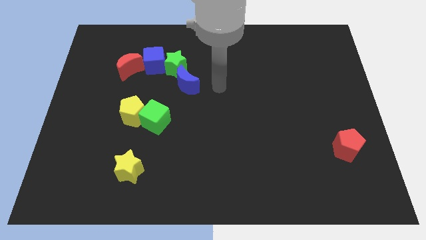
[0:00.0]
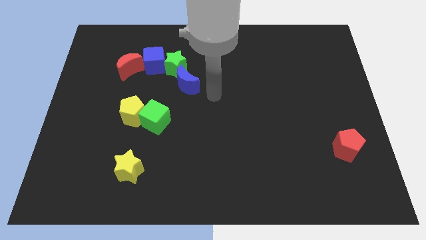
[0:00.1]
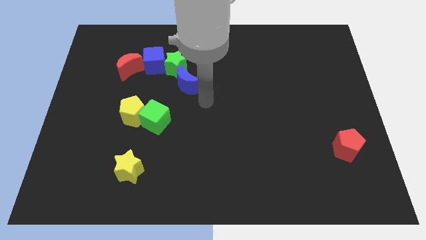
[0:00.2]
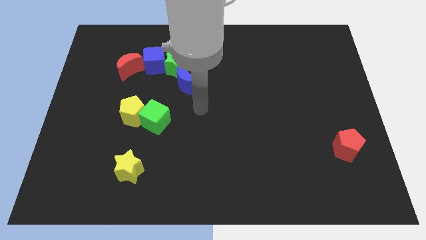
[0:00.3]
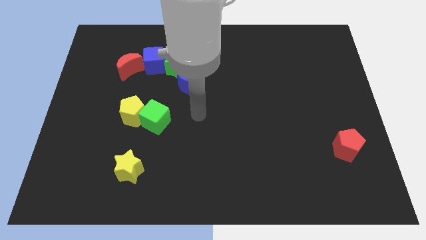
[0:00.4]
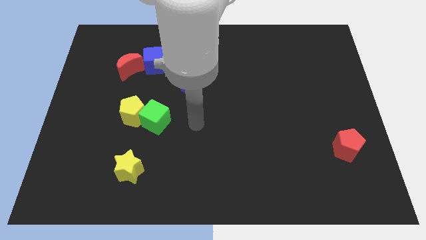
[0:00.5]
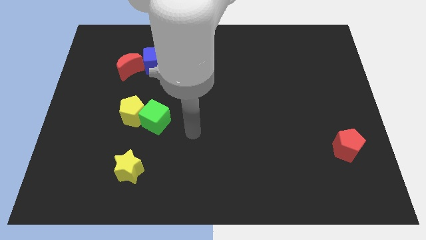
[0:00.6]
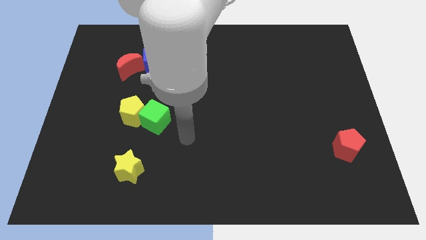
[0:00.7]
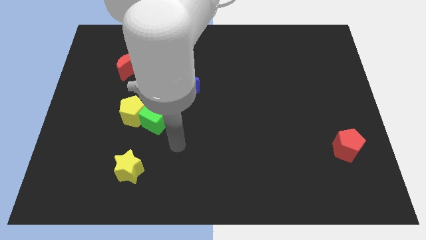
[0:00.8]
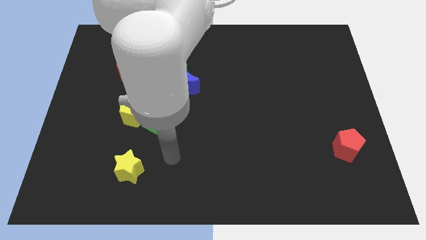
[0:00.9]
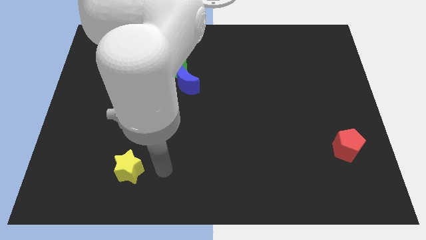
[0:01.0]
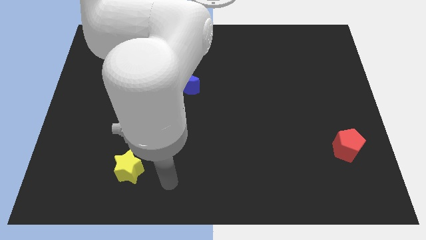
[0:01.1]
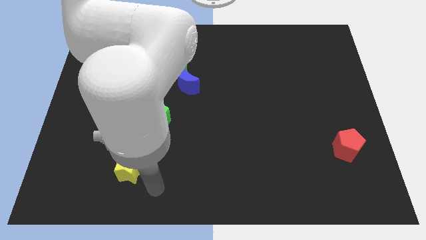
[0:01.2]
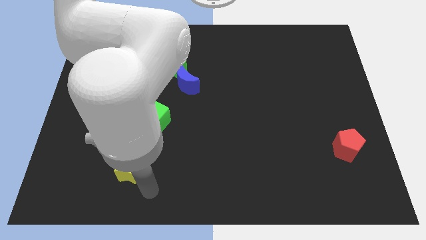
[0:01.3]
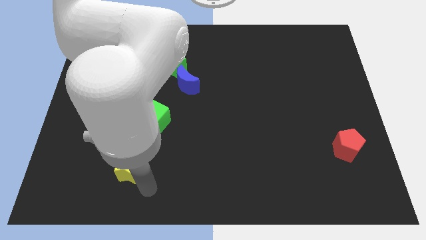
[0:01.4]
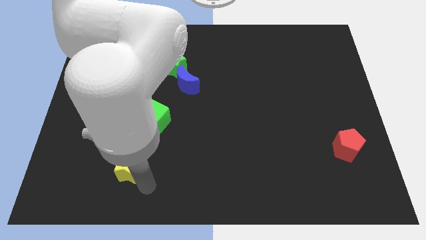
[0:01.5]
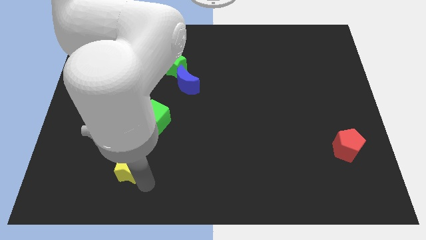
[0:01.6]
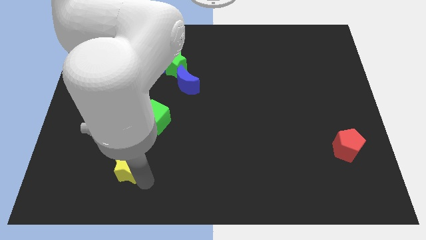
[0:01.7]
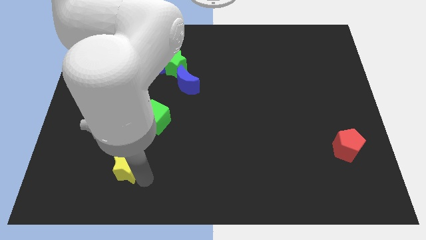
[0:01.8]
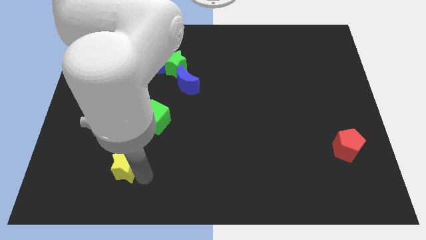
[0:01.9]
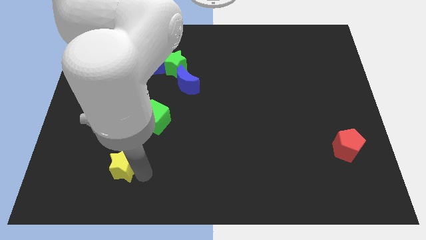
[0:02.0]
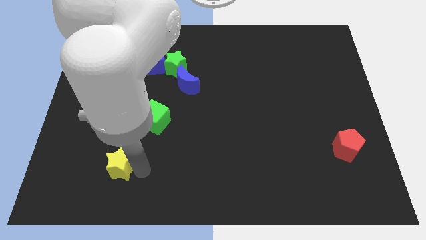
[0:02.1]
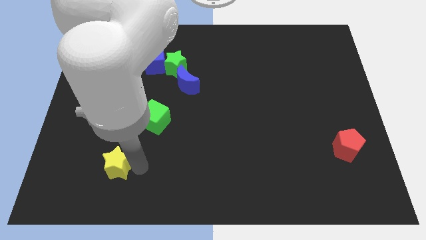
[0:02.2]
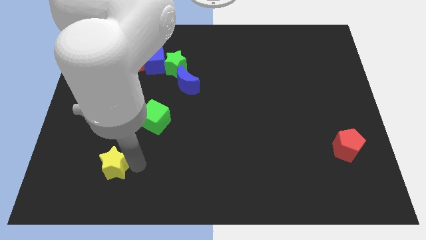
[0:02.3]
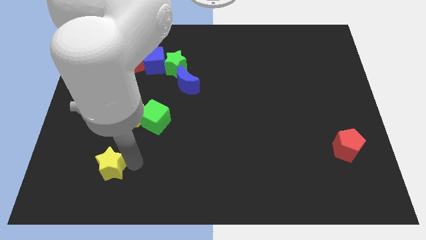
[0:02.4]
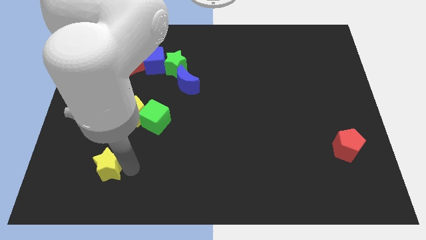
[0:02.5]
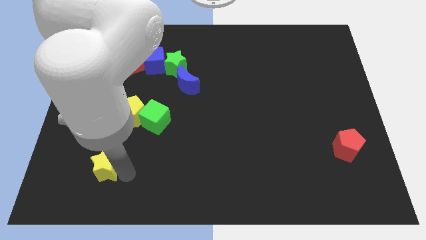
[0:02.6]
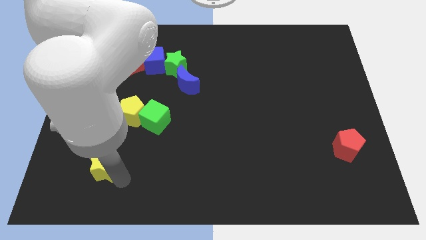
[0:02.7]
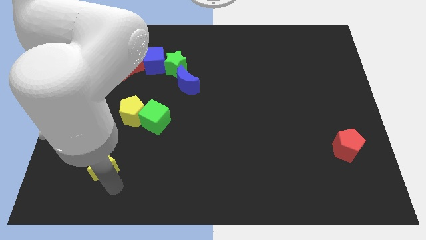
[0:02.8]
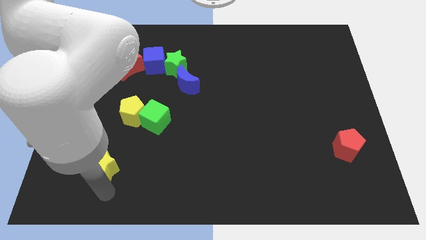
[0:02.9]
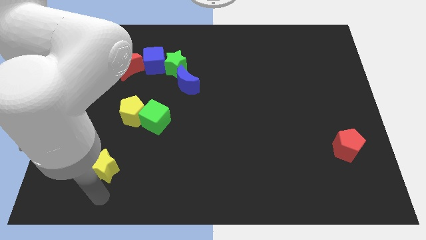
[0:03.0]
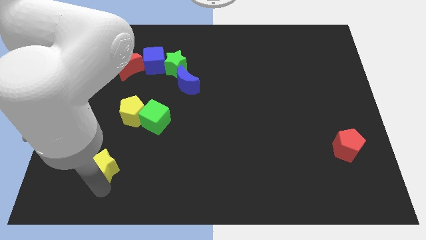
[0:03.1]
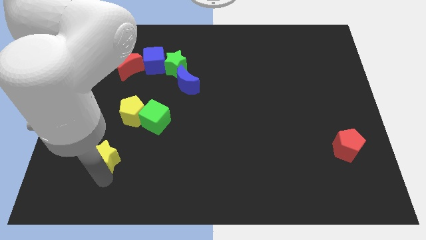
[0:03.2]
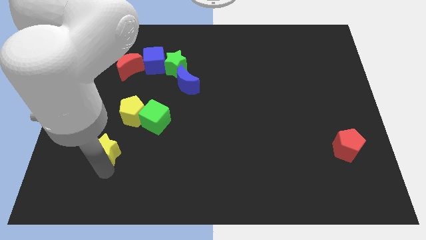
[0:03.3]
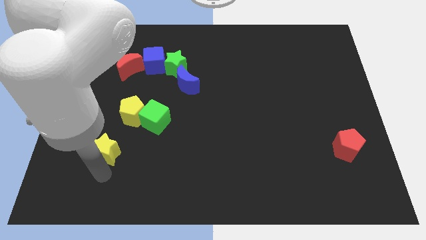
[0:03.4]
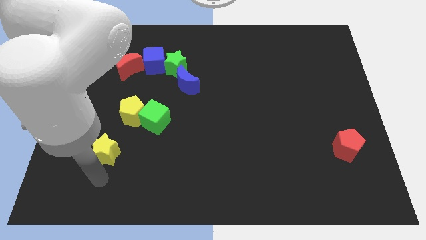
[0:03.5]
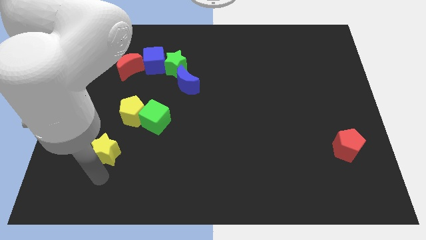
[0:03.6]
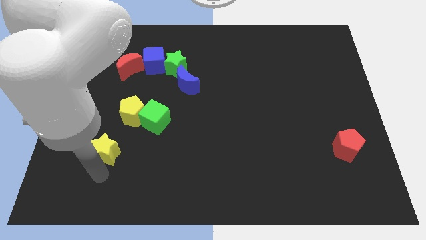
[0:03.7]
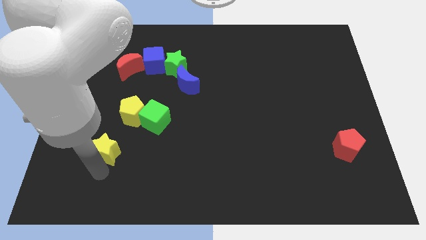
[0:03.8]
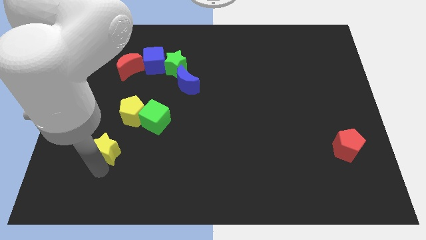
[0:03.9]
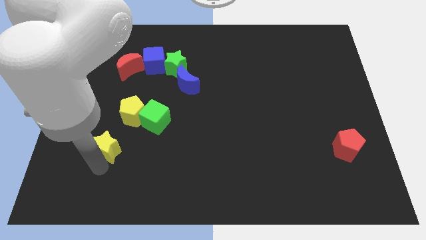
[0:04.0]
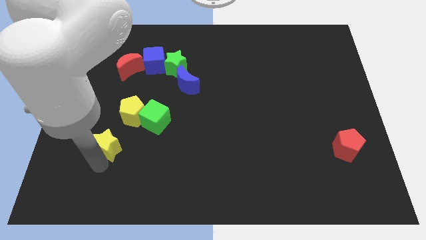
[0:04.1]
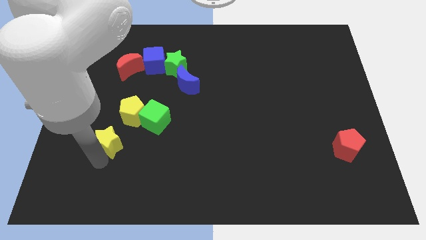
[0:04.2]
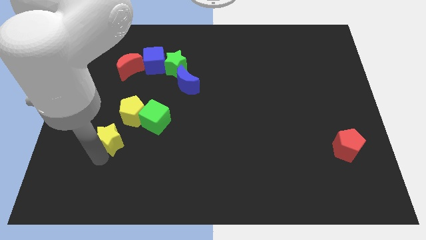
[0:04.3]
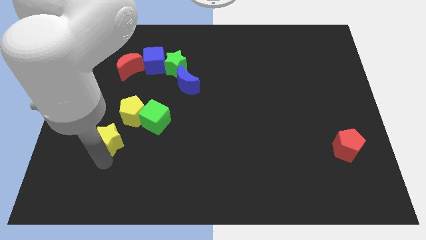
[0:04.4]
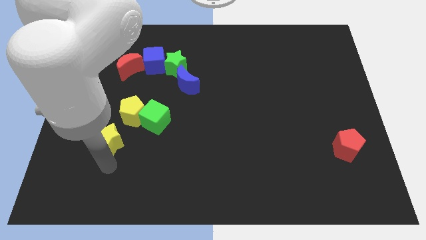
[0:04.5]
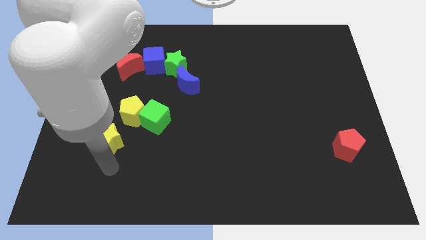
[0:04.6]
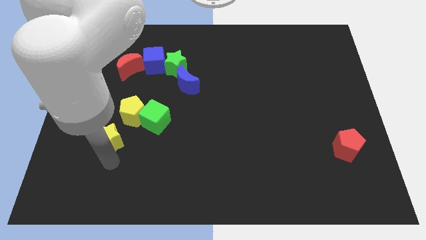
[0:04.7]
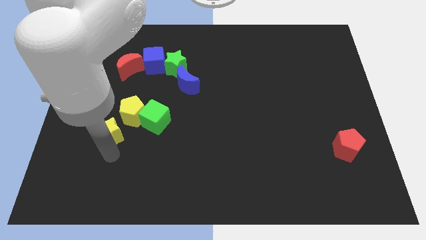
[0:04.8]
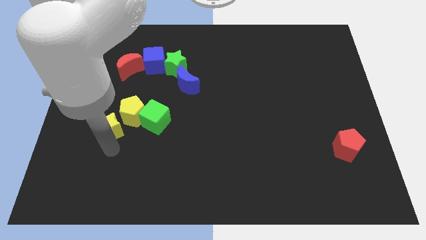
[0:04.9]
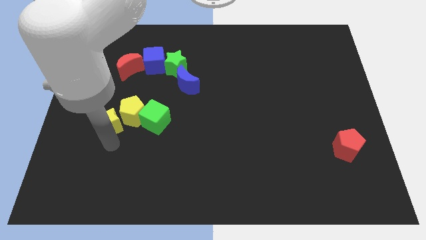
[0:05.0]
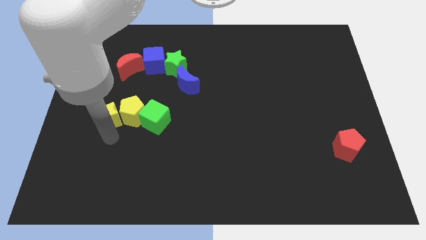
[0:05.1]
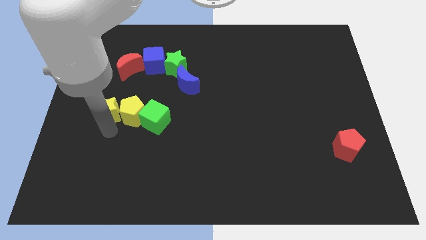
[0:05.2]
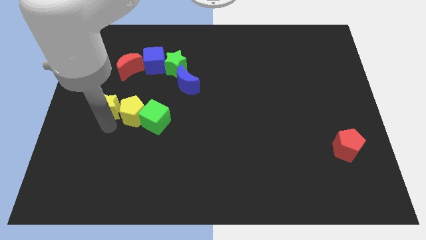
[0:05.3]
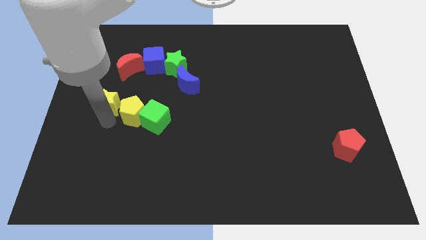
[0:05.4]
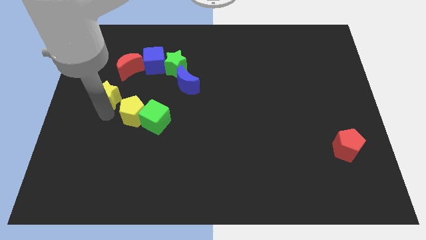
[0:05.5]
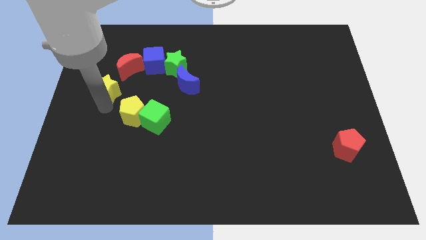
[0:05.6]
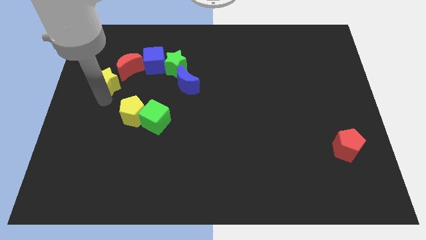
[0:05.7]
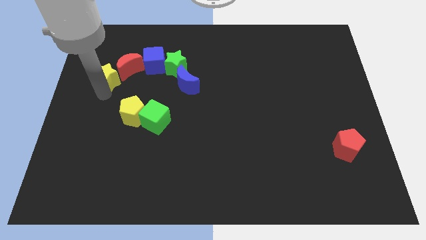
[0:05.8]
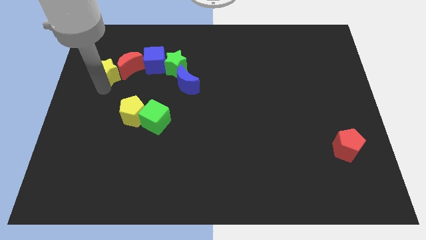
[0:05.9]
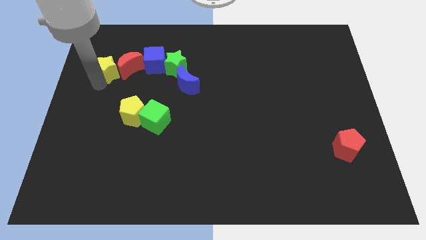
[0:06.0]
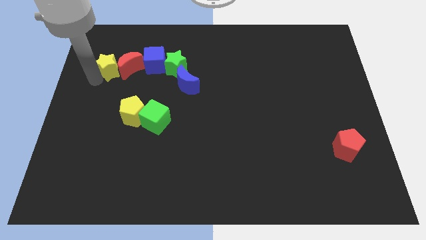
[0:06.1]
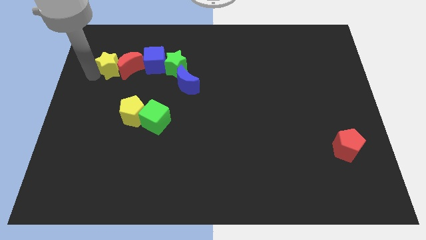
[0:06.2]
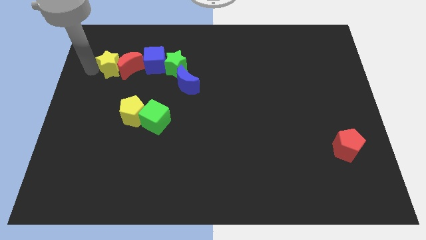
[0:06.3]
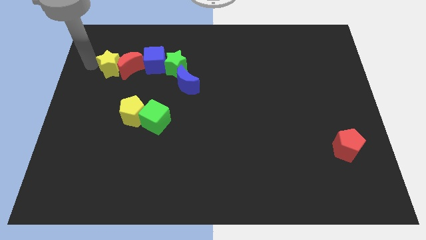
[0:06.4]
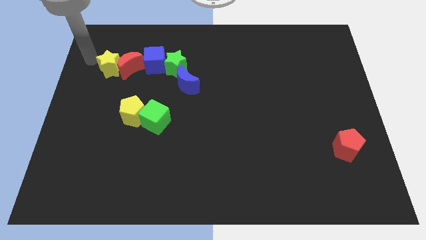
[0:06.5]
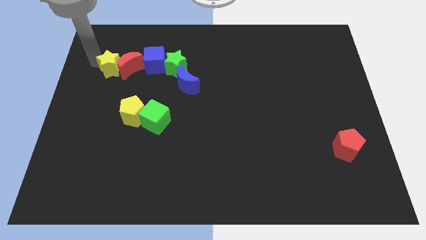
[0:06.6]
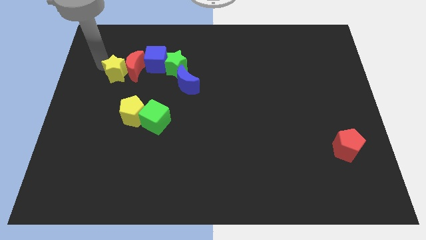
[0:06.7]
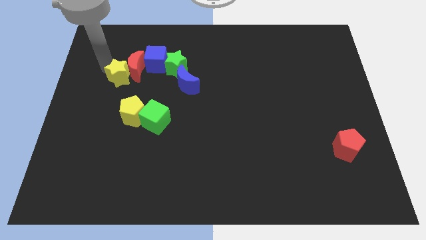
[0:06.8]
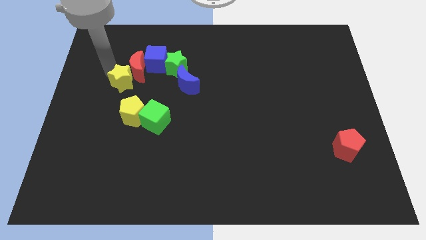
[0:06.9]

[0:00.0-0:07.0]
push the yellow star to the top of the yellow pentagon

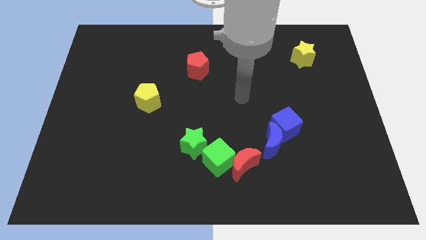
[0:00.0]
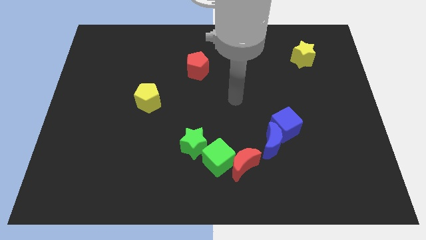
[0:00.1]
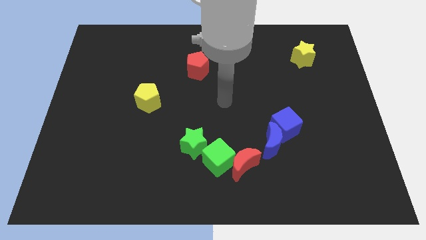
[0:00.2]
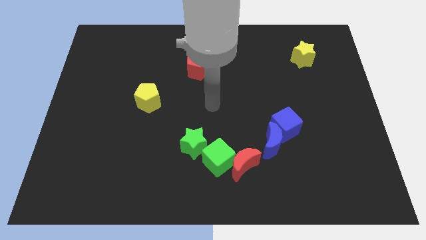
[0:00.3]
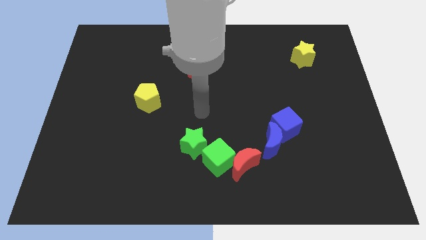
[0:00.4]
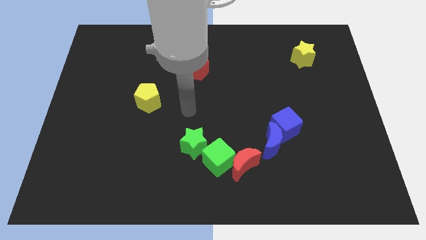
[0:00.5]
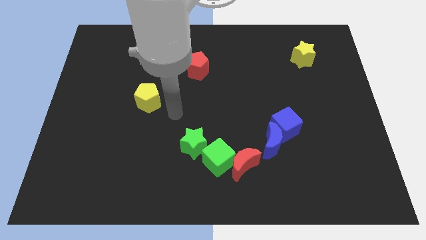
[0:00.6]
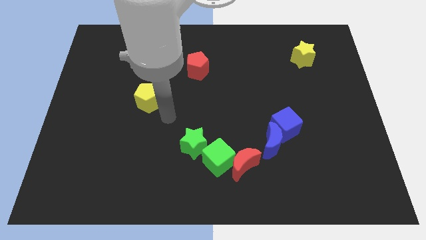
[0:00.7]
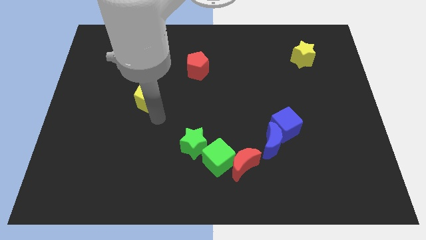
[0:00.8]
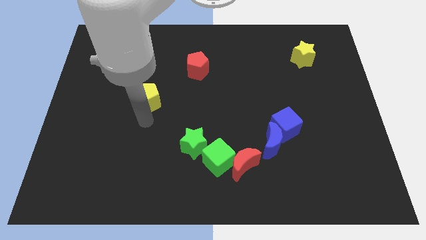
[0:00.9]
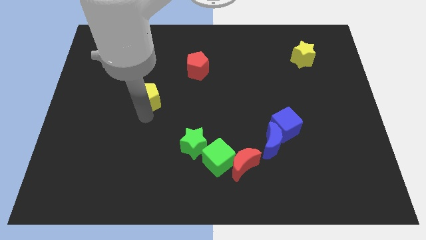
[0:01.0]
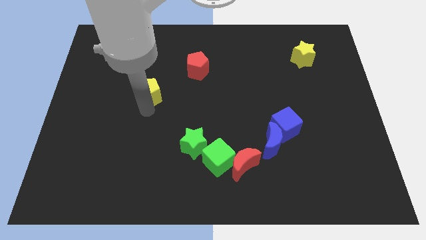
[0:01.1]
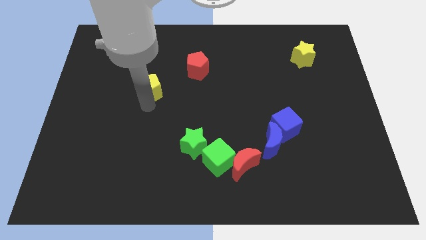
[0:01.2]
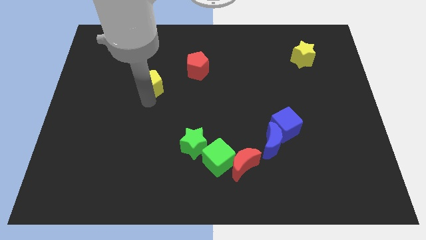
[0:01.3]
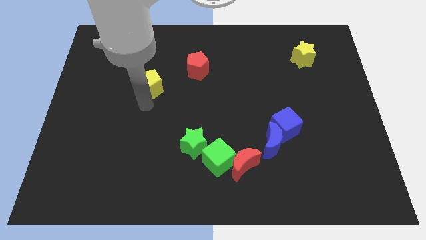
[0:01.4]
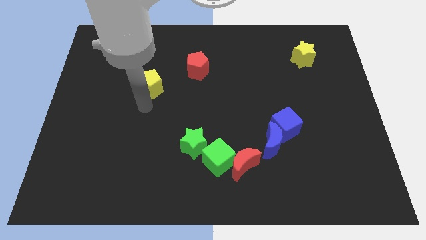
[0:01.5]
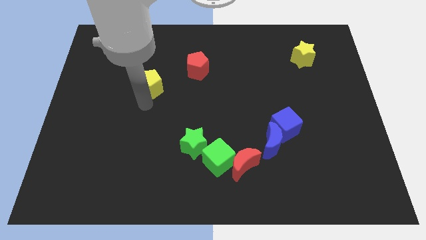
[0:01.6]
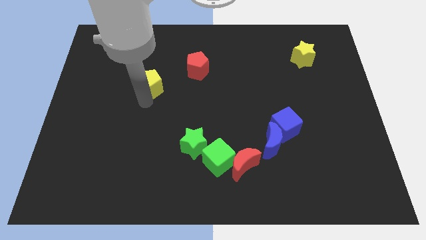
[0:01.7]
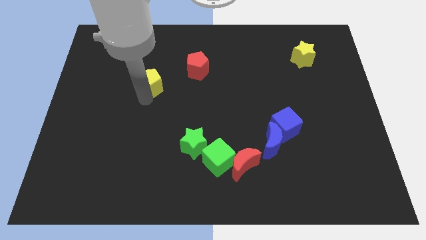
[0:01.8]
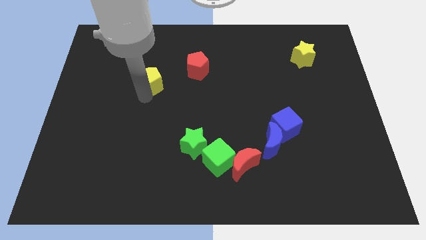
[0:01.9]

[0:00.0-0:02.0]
slide the yellow pentagon left of the red pentagon
